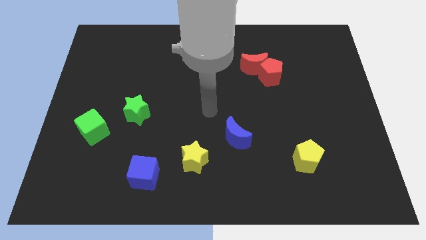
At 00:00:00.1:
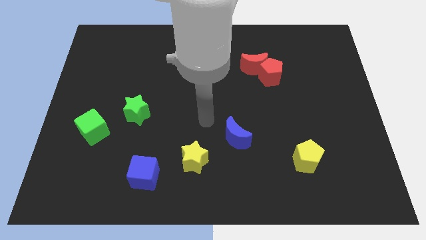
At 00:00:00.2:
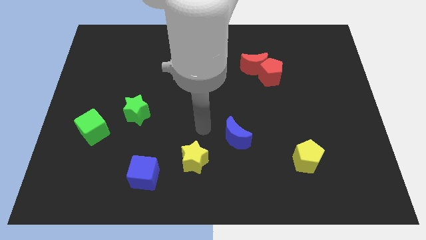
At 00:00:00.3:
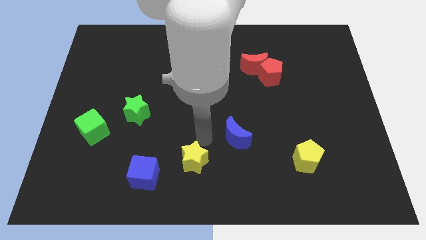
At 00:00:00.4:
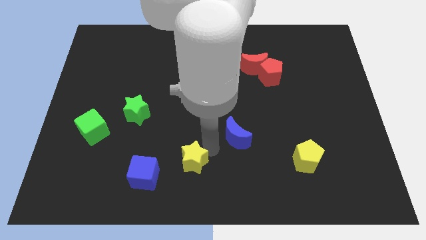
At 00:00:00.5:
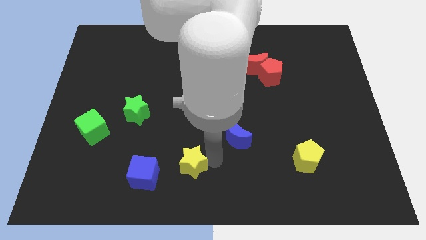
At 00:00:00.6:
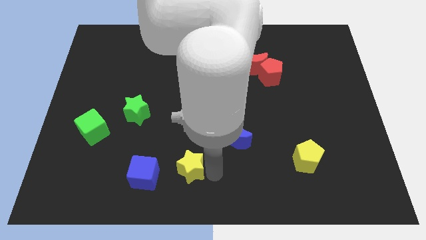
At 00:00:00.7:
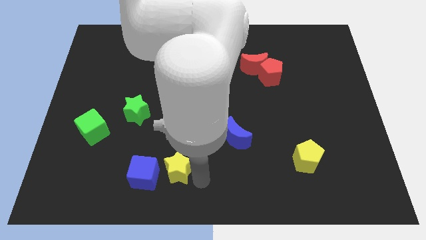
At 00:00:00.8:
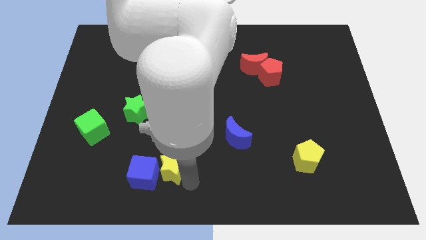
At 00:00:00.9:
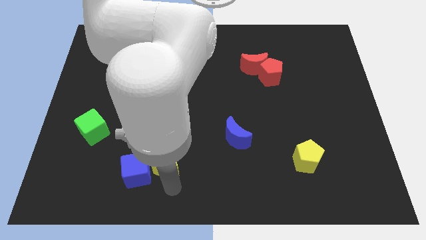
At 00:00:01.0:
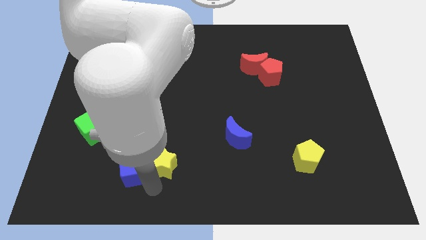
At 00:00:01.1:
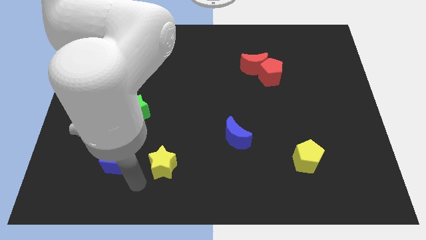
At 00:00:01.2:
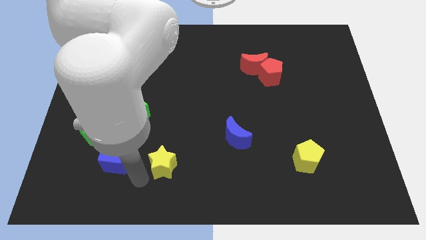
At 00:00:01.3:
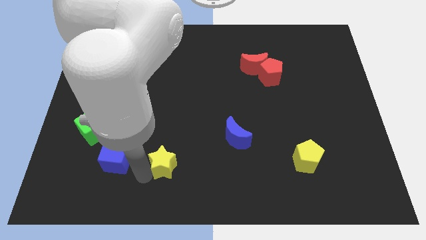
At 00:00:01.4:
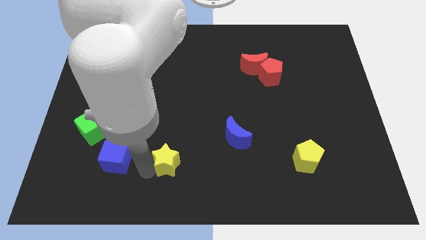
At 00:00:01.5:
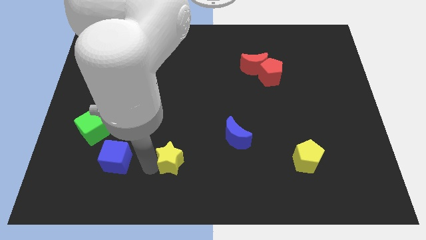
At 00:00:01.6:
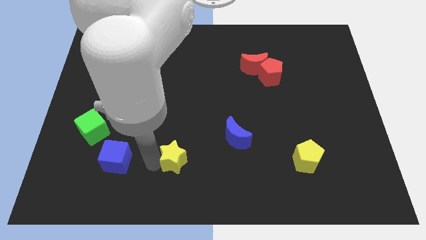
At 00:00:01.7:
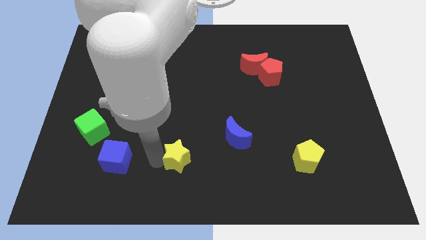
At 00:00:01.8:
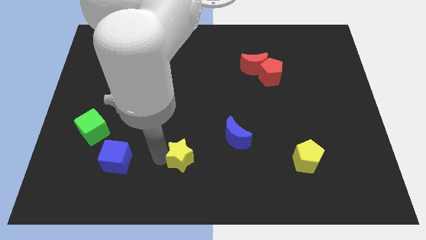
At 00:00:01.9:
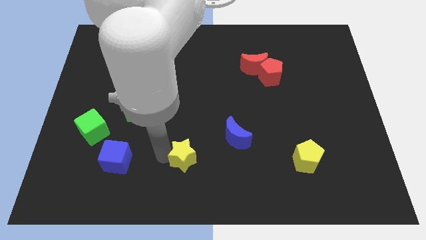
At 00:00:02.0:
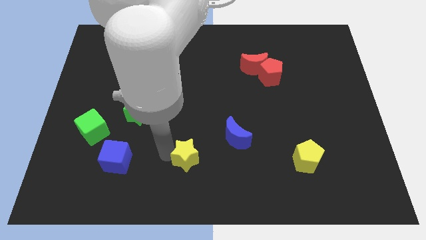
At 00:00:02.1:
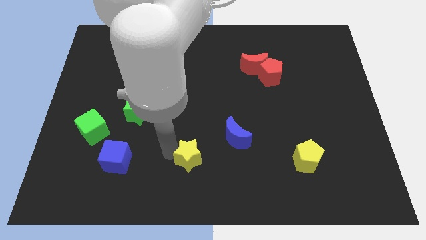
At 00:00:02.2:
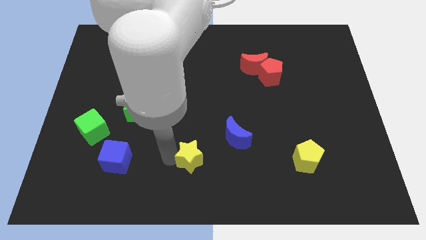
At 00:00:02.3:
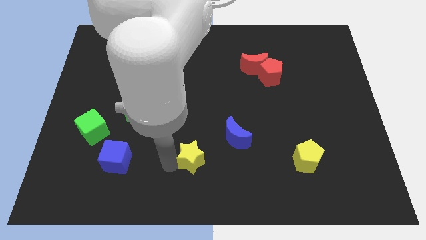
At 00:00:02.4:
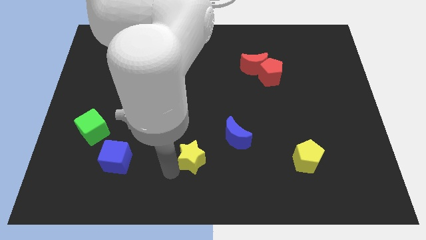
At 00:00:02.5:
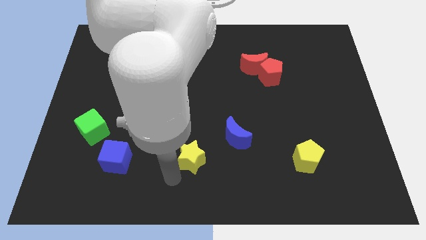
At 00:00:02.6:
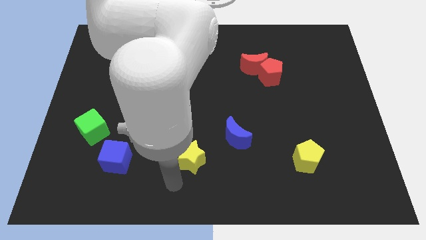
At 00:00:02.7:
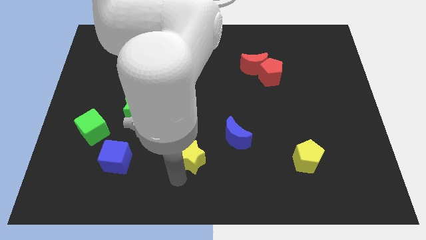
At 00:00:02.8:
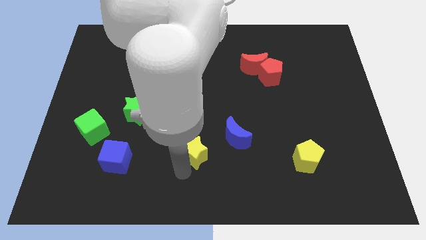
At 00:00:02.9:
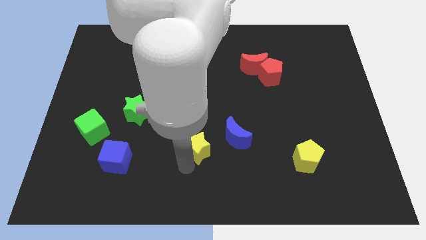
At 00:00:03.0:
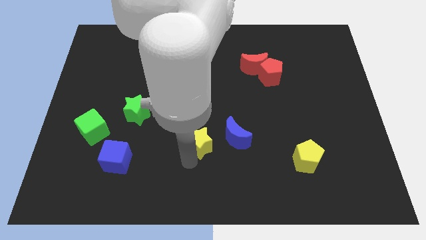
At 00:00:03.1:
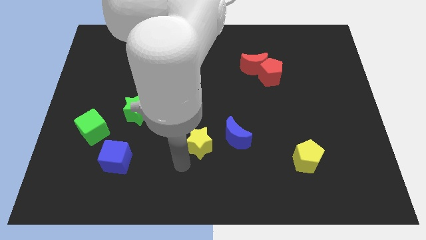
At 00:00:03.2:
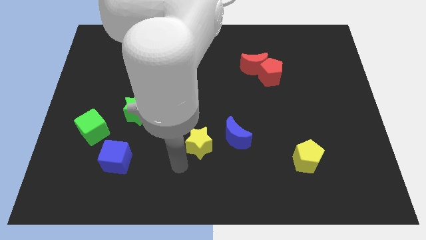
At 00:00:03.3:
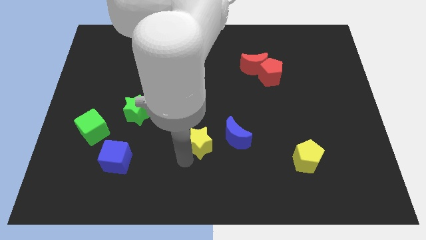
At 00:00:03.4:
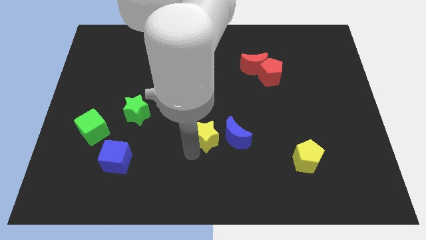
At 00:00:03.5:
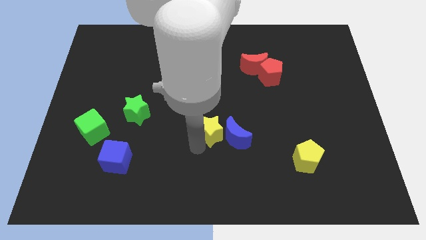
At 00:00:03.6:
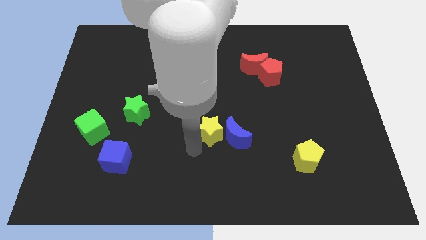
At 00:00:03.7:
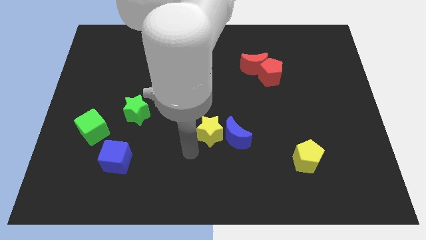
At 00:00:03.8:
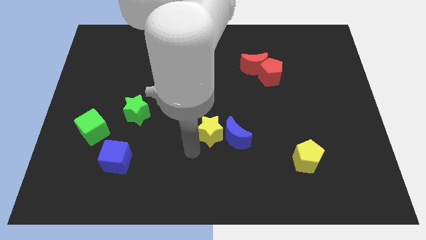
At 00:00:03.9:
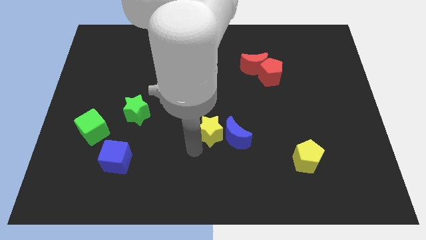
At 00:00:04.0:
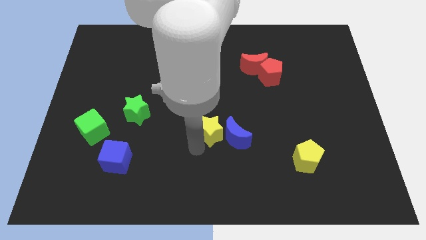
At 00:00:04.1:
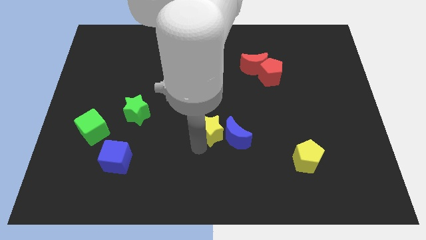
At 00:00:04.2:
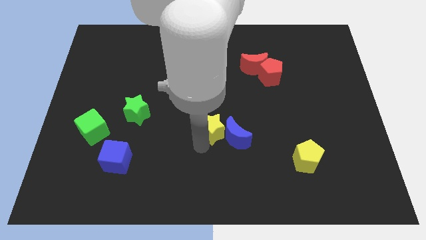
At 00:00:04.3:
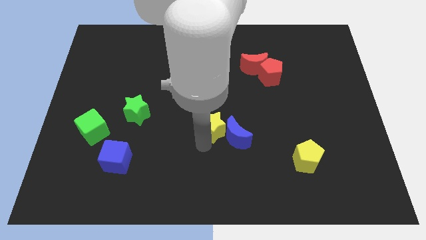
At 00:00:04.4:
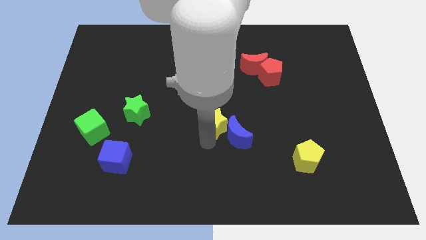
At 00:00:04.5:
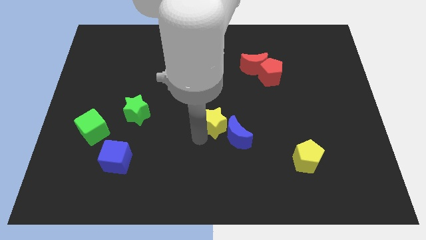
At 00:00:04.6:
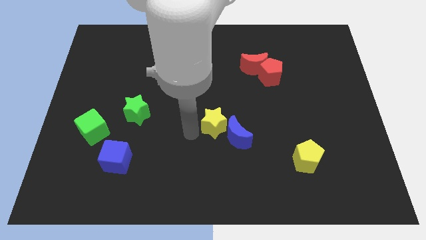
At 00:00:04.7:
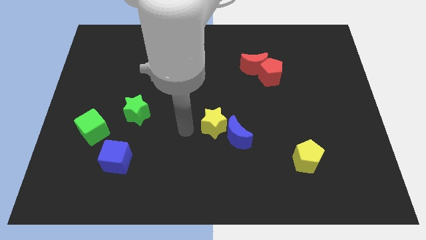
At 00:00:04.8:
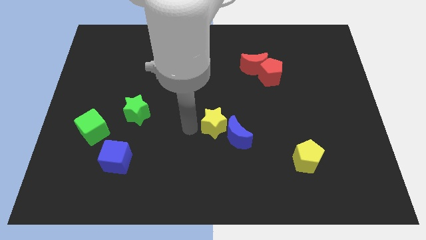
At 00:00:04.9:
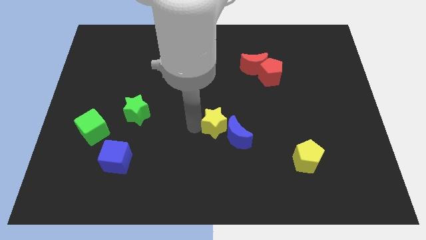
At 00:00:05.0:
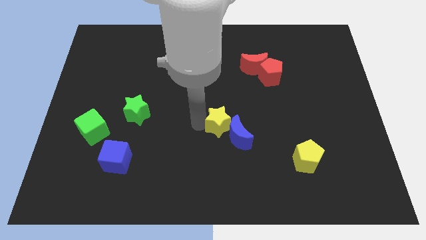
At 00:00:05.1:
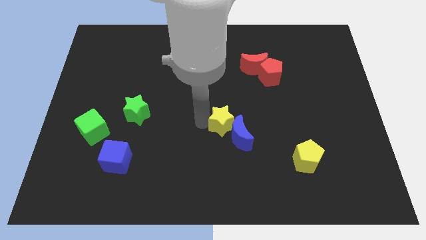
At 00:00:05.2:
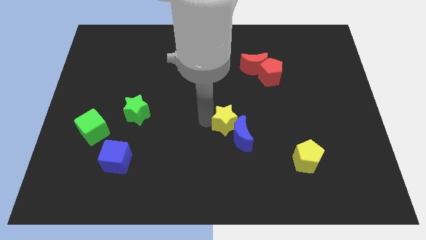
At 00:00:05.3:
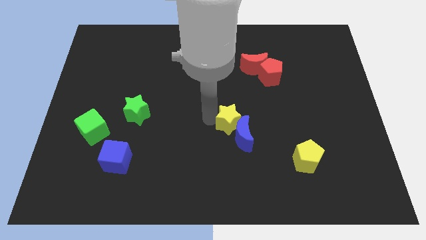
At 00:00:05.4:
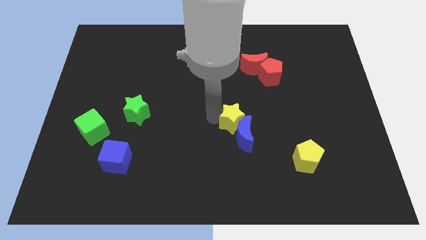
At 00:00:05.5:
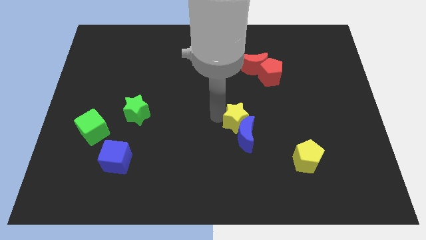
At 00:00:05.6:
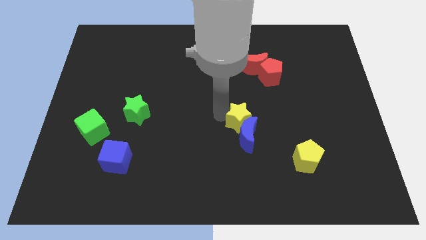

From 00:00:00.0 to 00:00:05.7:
slide the yellow star to the top right side of the blue moon

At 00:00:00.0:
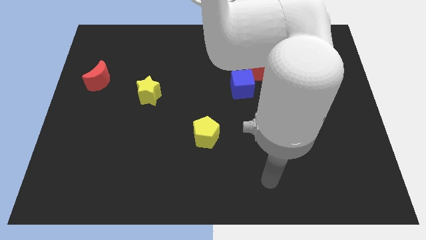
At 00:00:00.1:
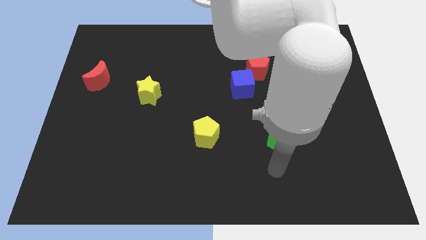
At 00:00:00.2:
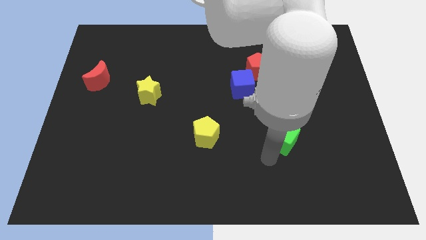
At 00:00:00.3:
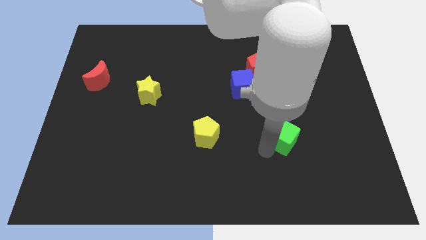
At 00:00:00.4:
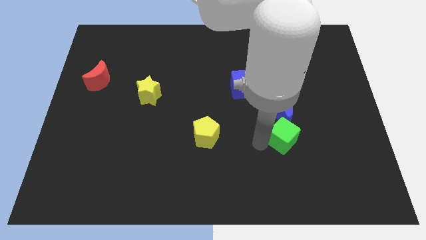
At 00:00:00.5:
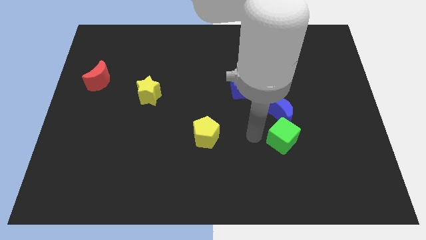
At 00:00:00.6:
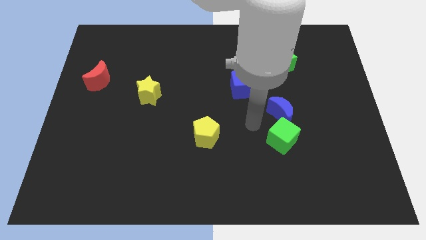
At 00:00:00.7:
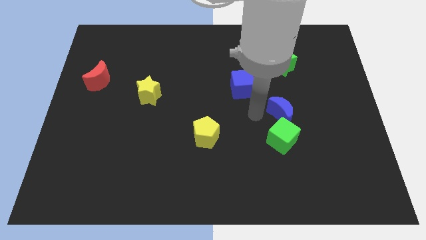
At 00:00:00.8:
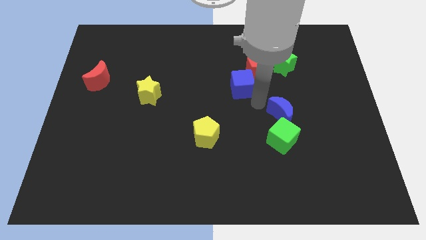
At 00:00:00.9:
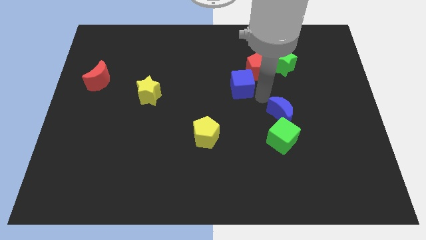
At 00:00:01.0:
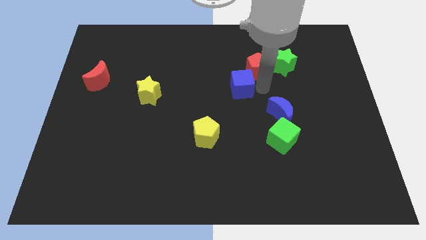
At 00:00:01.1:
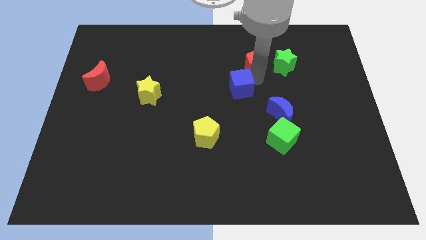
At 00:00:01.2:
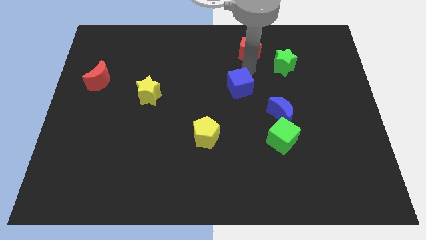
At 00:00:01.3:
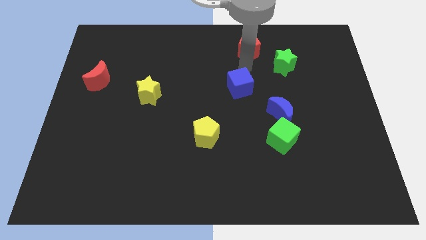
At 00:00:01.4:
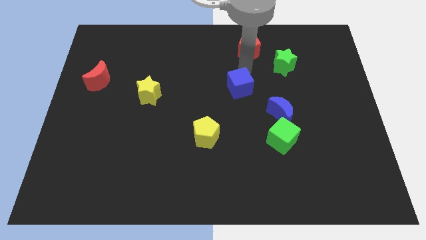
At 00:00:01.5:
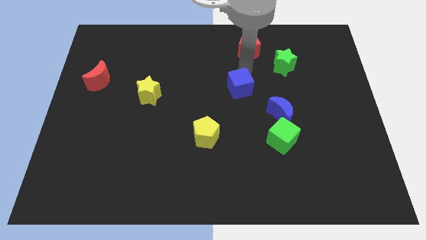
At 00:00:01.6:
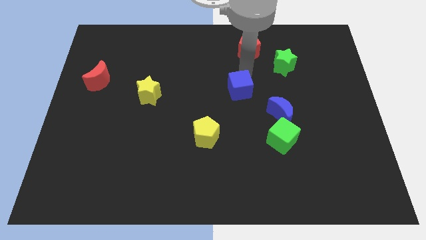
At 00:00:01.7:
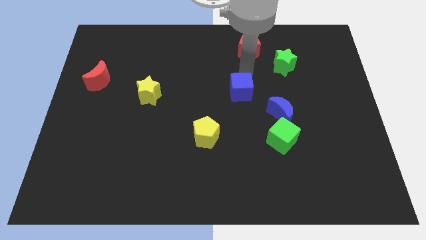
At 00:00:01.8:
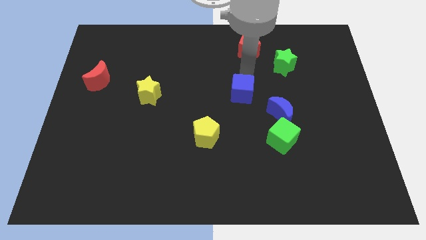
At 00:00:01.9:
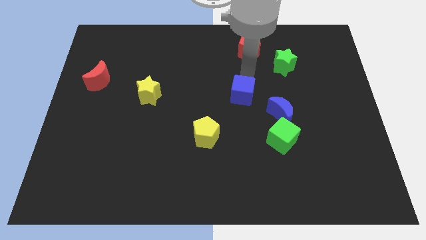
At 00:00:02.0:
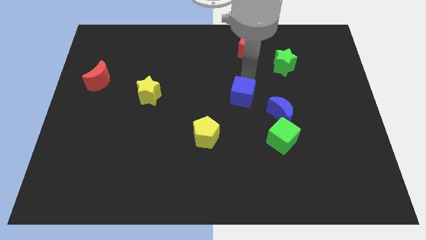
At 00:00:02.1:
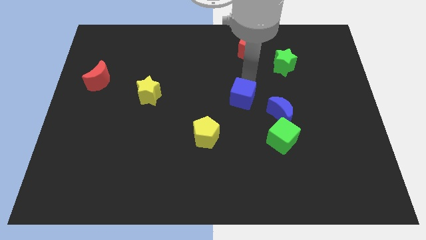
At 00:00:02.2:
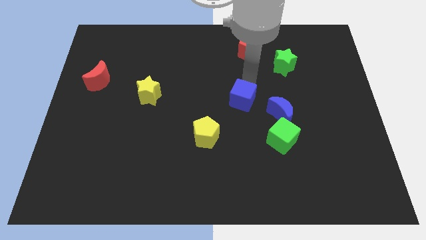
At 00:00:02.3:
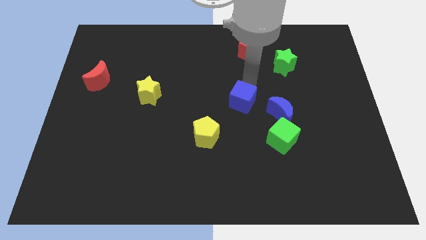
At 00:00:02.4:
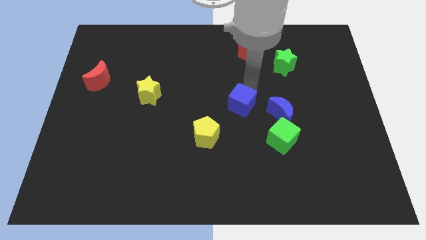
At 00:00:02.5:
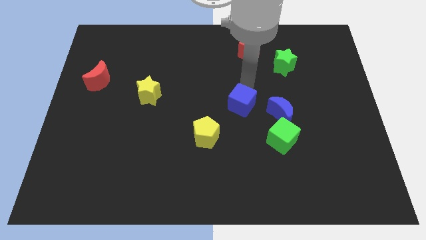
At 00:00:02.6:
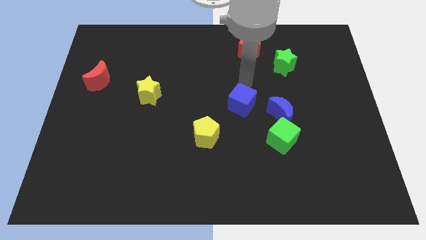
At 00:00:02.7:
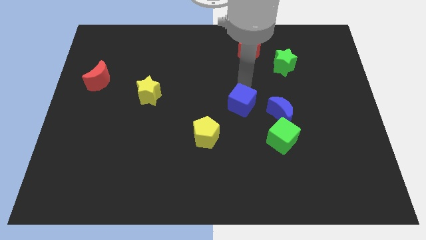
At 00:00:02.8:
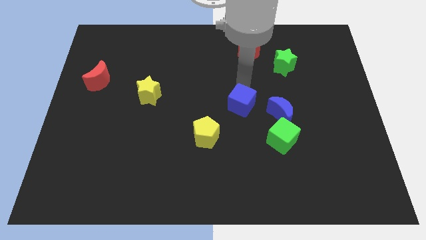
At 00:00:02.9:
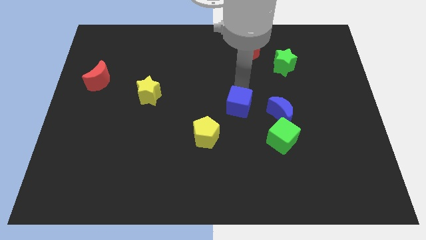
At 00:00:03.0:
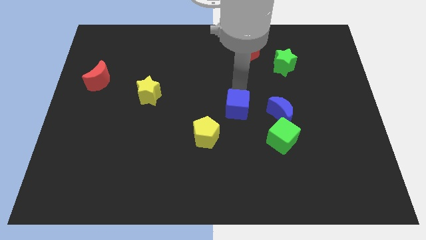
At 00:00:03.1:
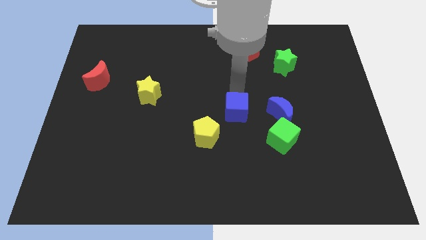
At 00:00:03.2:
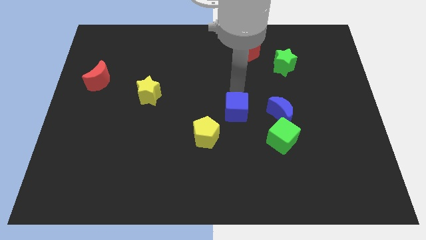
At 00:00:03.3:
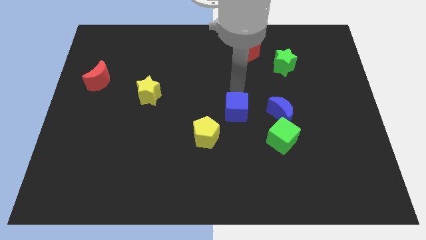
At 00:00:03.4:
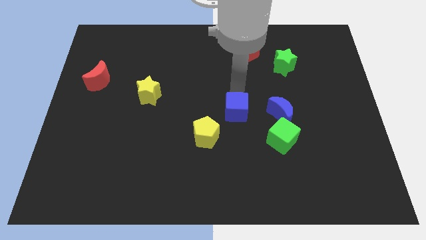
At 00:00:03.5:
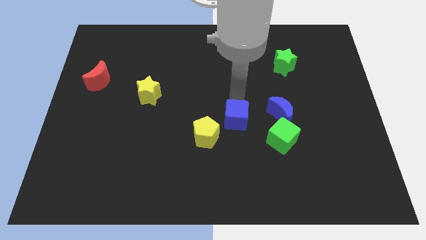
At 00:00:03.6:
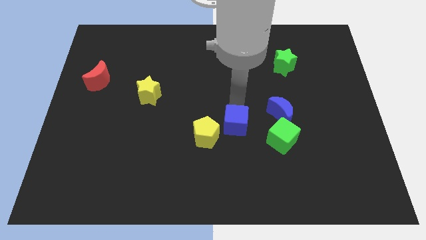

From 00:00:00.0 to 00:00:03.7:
push the blue cube to the left of the green cube
